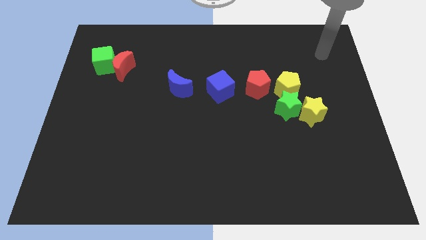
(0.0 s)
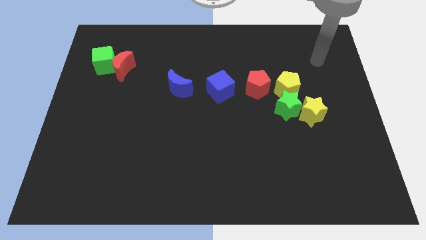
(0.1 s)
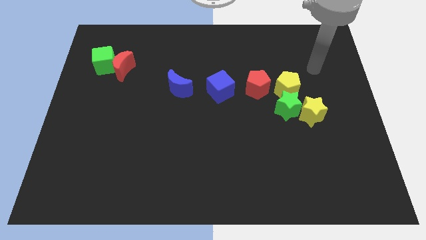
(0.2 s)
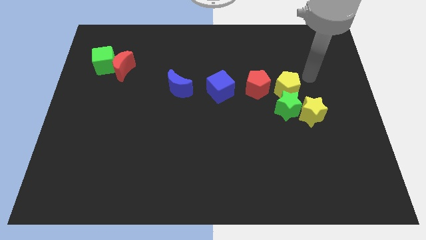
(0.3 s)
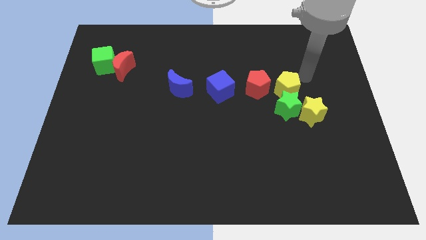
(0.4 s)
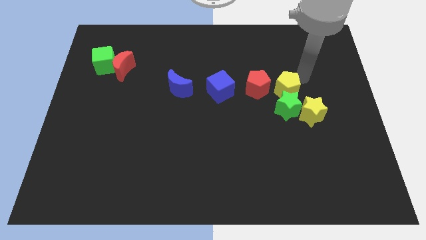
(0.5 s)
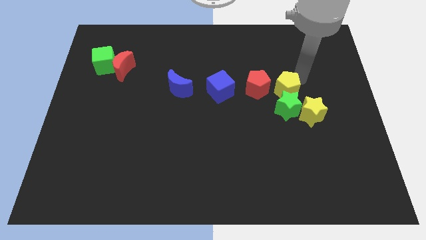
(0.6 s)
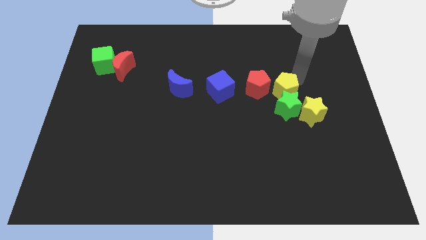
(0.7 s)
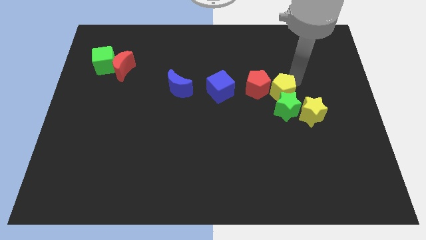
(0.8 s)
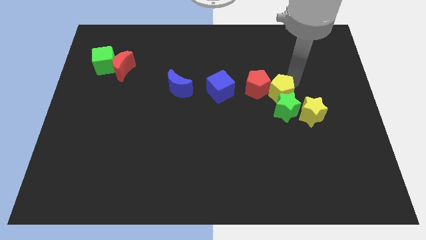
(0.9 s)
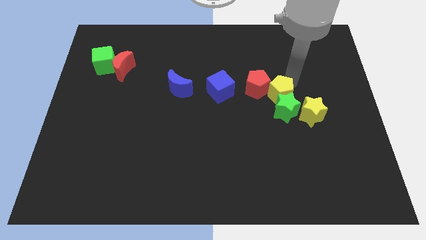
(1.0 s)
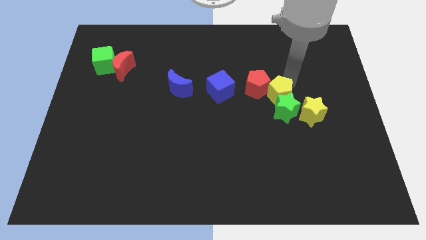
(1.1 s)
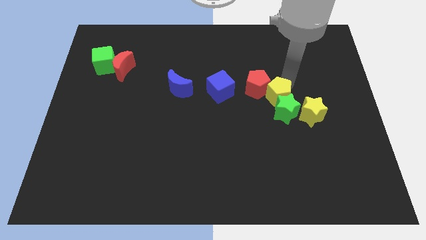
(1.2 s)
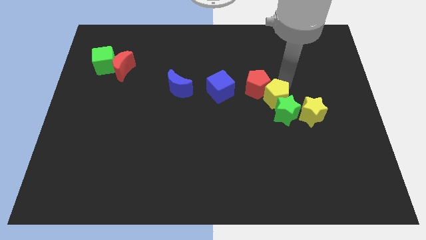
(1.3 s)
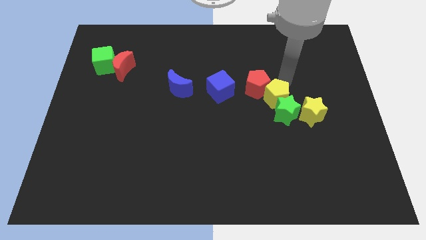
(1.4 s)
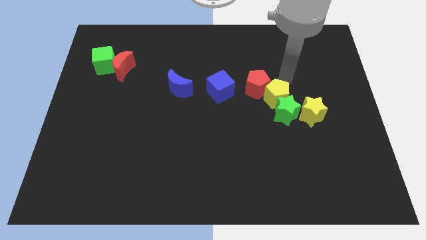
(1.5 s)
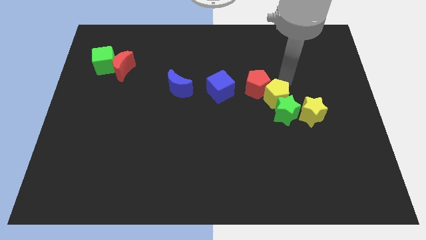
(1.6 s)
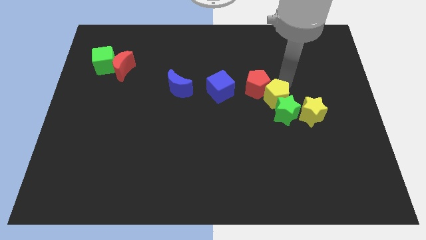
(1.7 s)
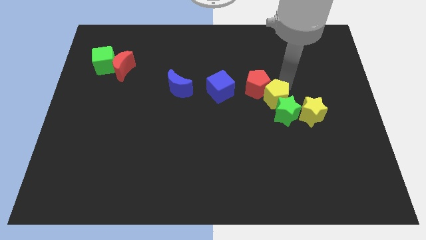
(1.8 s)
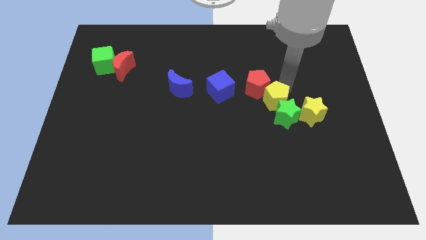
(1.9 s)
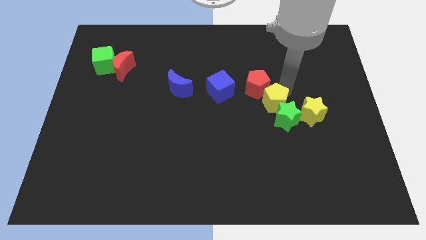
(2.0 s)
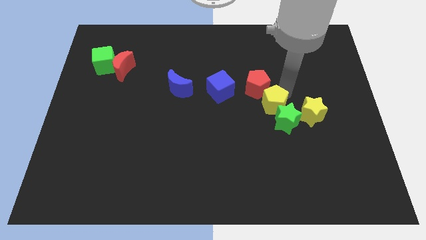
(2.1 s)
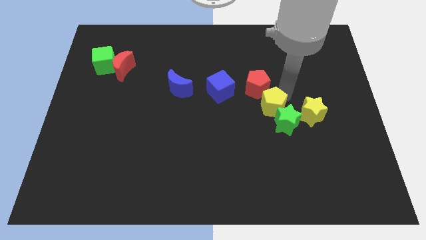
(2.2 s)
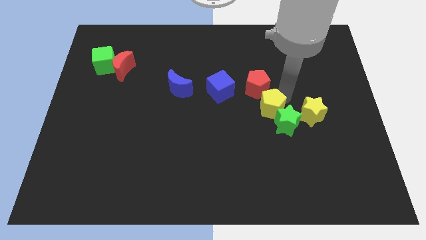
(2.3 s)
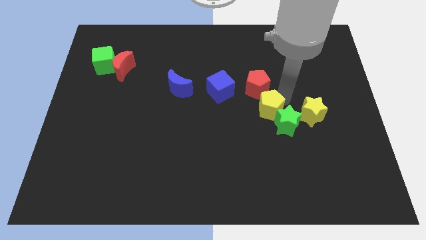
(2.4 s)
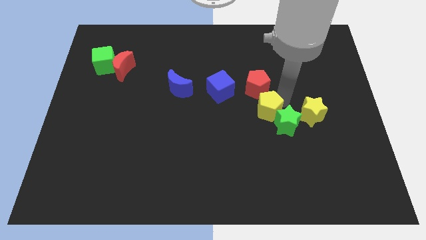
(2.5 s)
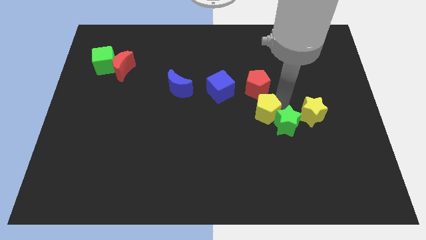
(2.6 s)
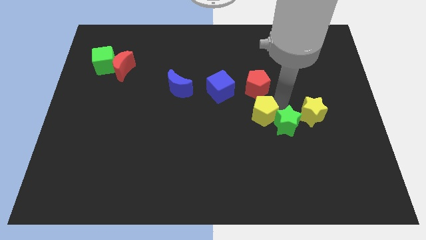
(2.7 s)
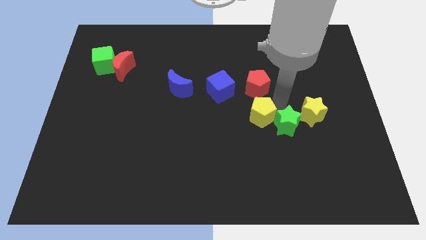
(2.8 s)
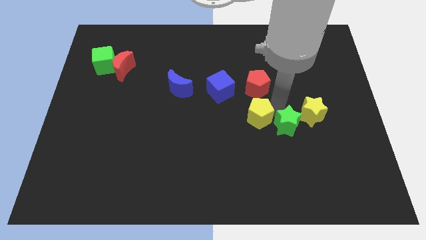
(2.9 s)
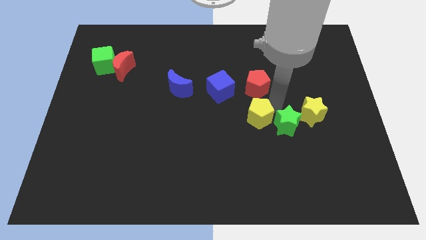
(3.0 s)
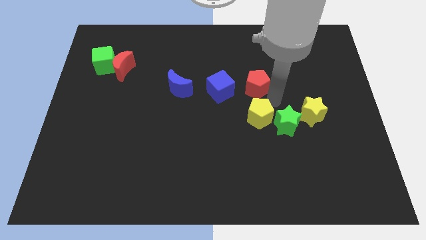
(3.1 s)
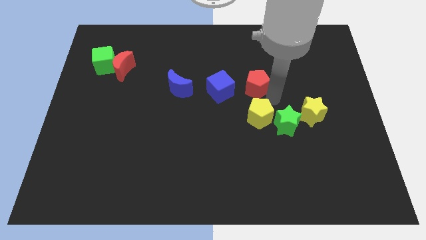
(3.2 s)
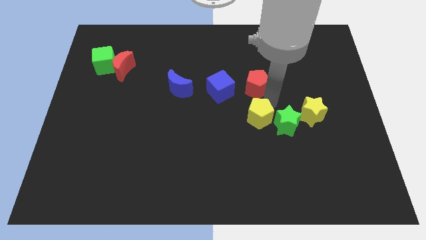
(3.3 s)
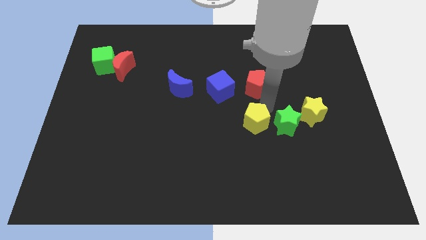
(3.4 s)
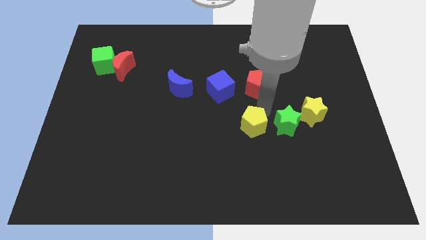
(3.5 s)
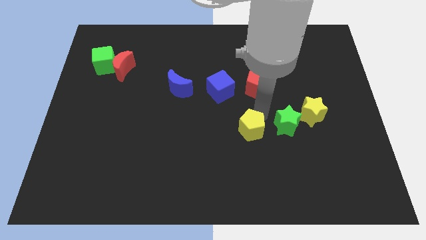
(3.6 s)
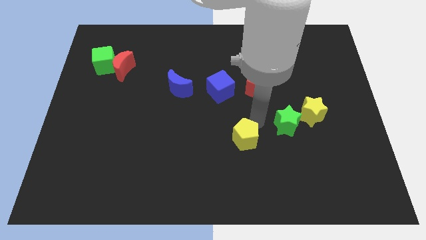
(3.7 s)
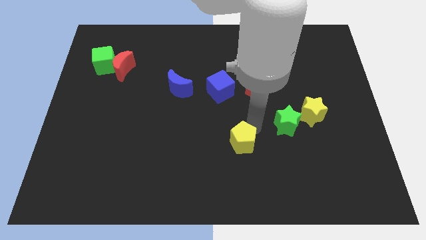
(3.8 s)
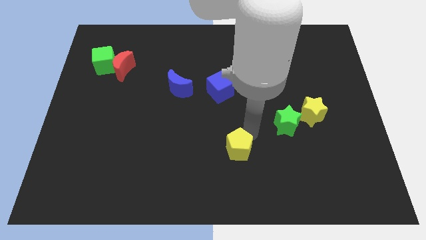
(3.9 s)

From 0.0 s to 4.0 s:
push the yellow pentagon diagonally downwards and left

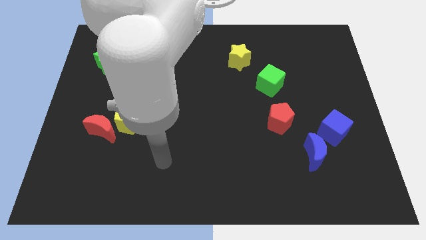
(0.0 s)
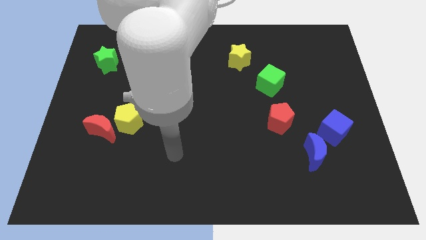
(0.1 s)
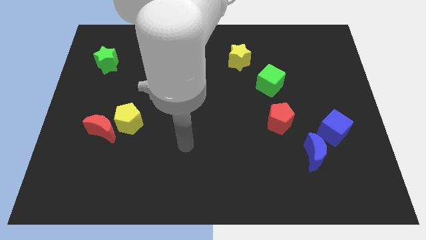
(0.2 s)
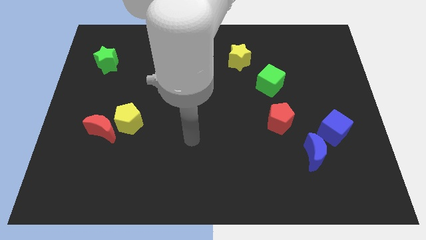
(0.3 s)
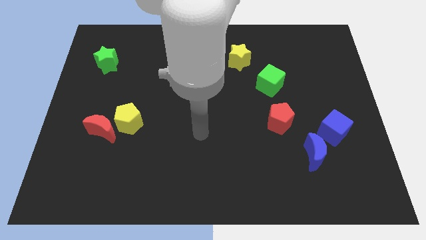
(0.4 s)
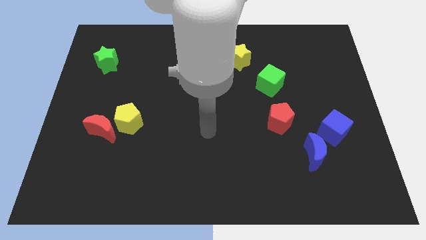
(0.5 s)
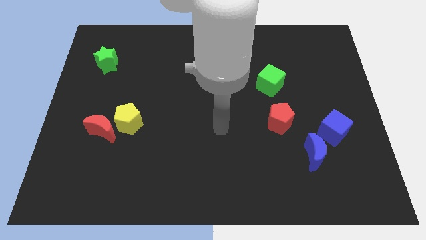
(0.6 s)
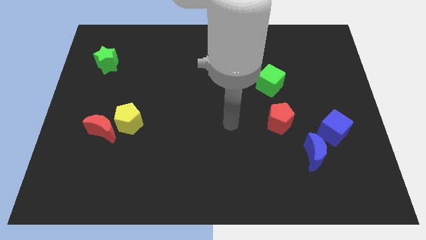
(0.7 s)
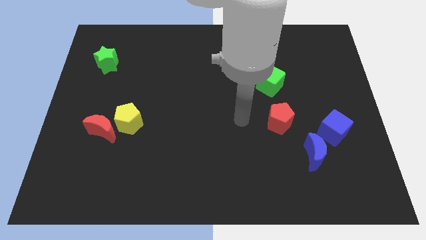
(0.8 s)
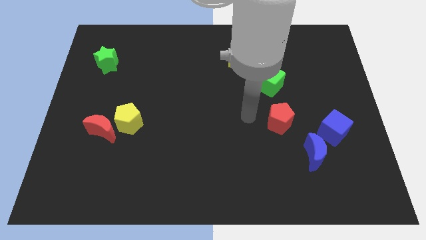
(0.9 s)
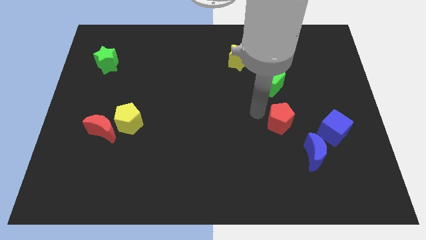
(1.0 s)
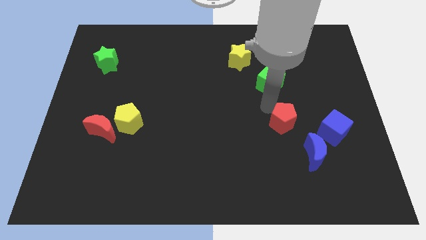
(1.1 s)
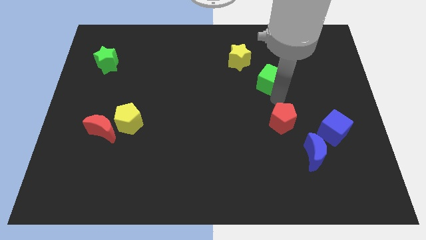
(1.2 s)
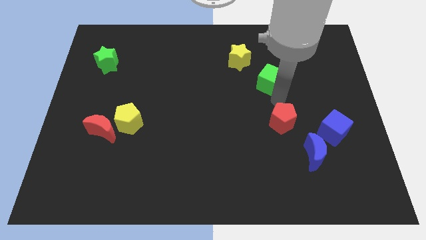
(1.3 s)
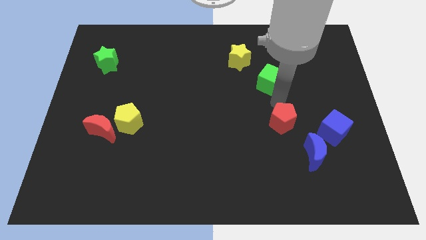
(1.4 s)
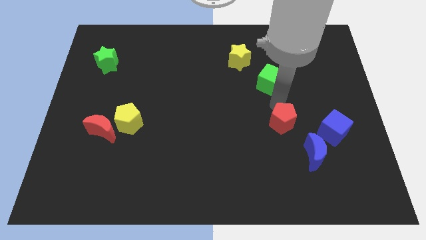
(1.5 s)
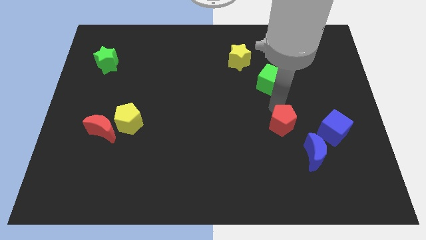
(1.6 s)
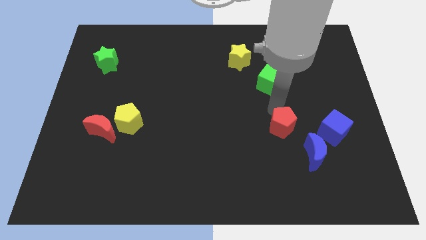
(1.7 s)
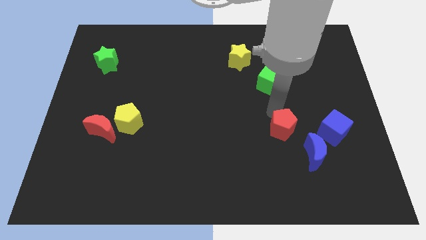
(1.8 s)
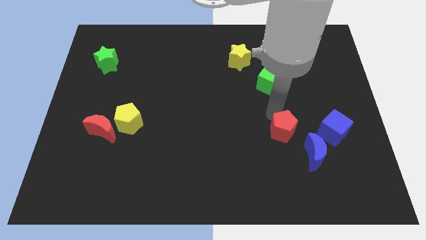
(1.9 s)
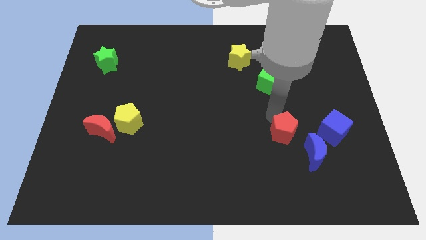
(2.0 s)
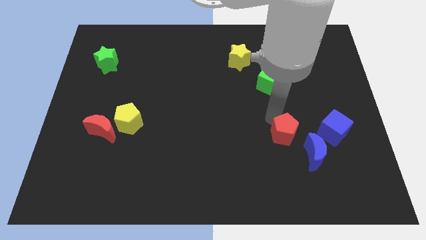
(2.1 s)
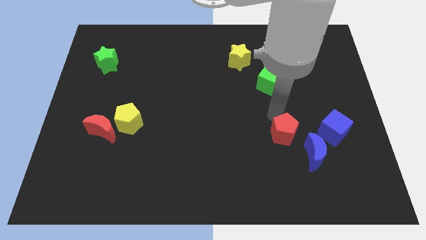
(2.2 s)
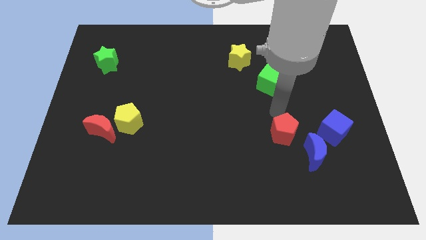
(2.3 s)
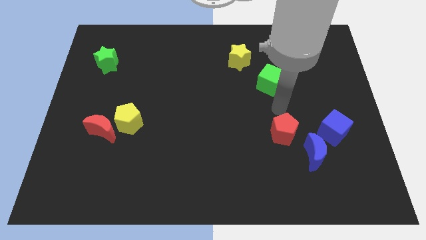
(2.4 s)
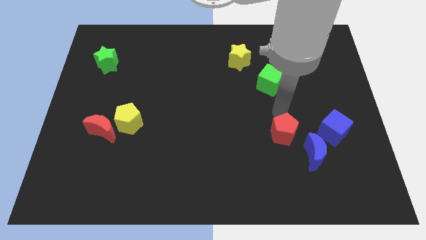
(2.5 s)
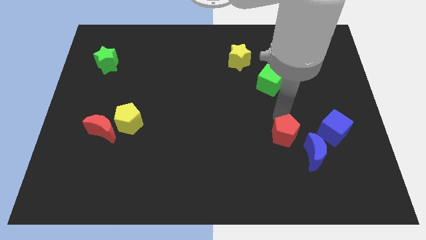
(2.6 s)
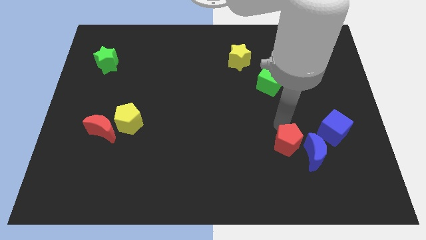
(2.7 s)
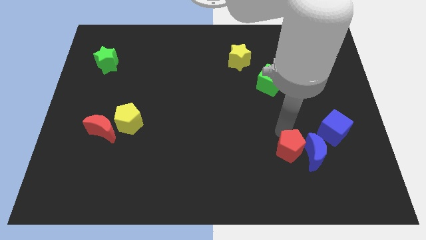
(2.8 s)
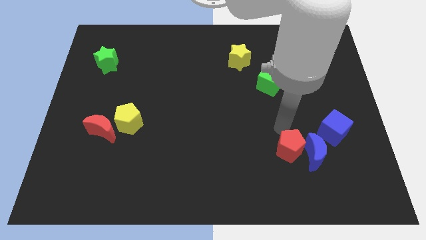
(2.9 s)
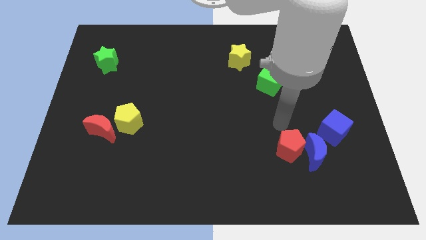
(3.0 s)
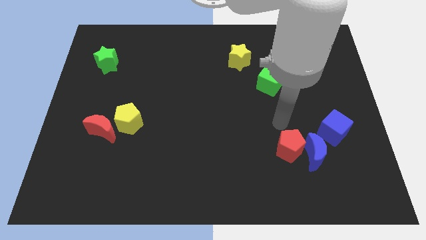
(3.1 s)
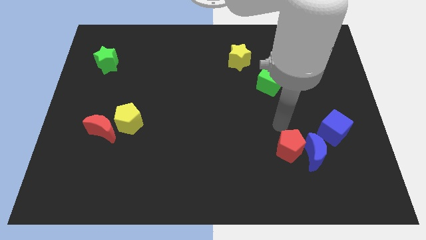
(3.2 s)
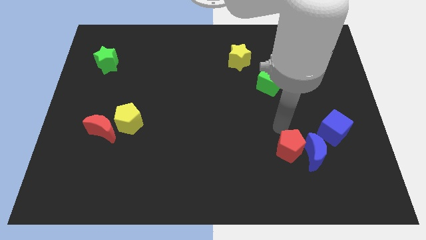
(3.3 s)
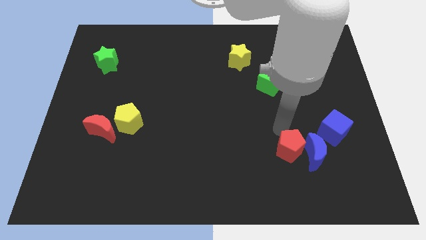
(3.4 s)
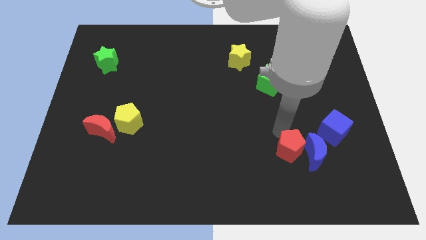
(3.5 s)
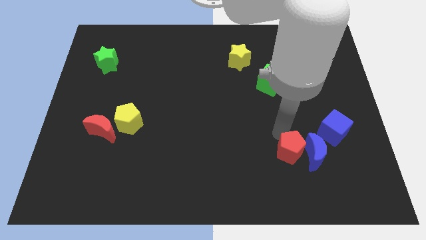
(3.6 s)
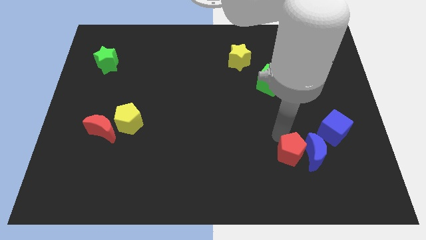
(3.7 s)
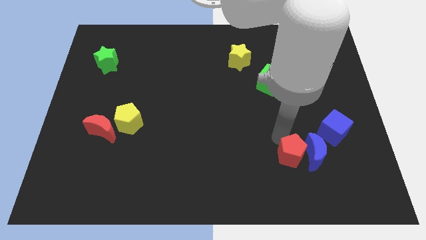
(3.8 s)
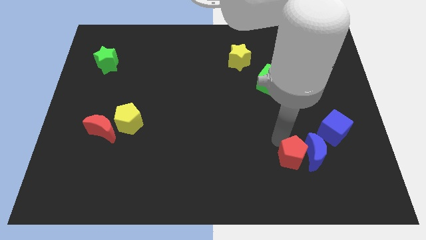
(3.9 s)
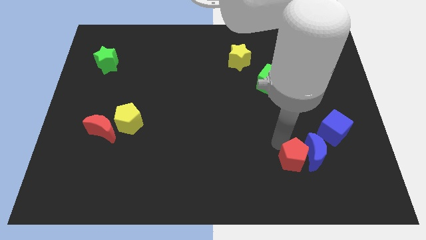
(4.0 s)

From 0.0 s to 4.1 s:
slightly push the red pentagon diagonally downwards and right
